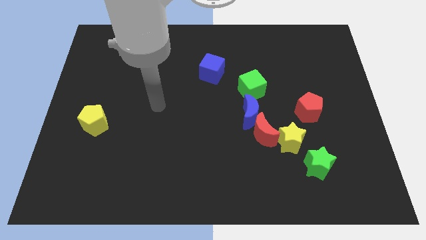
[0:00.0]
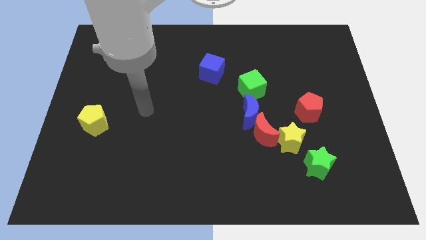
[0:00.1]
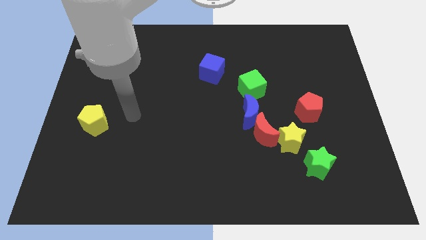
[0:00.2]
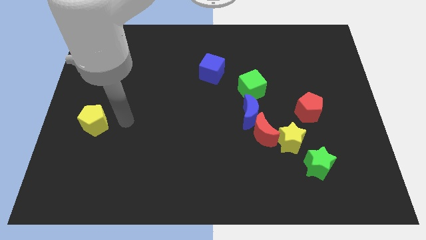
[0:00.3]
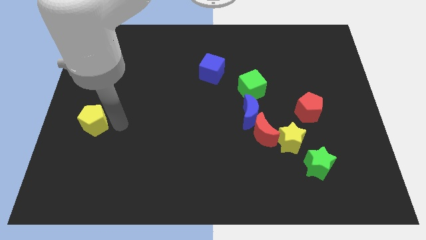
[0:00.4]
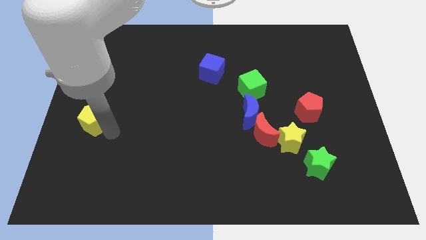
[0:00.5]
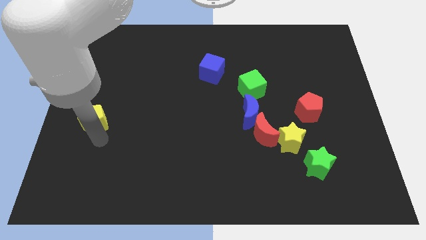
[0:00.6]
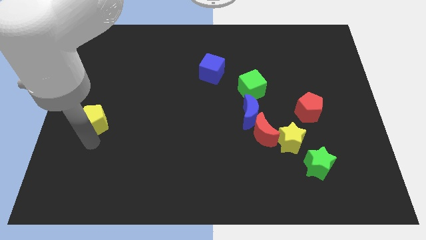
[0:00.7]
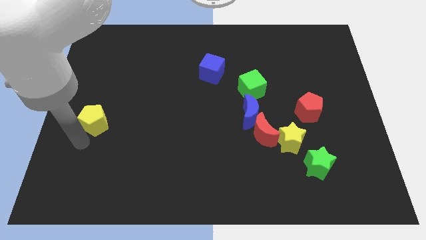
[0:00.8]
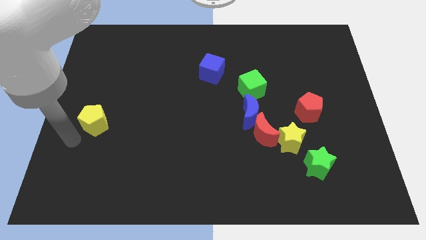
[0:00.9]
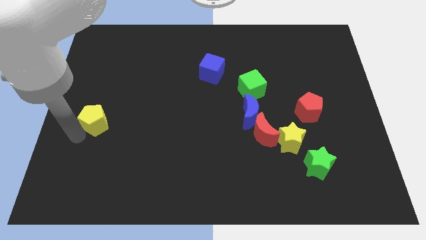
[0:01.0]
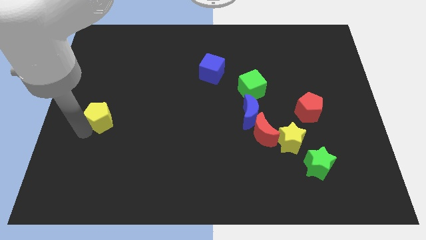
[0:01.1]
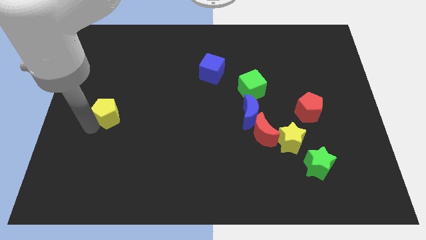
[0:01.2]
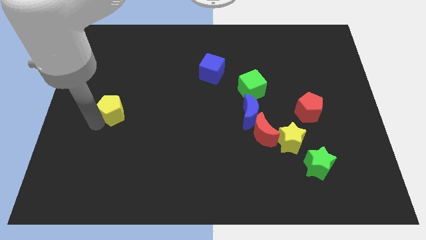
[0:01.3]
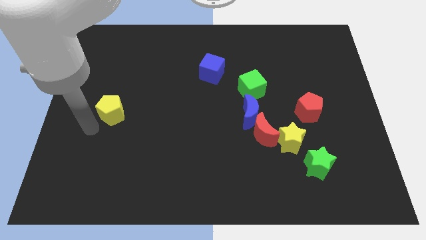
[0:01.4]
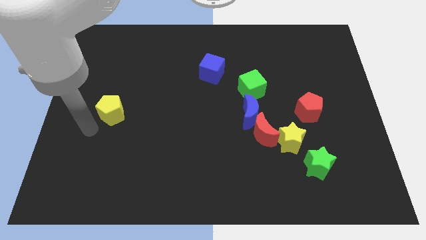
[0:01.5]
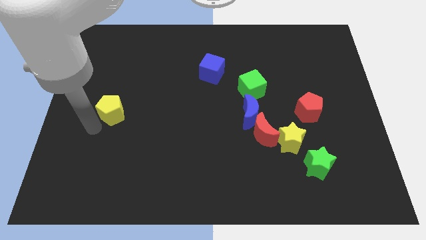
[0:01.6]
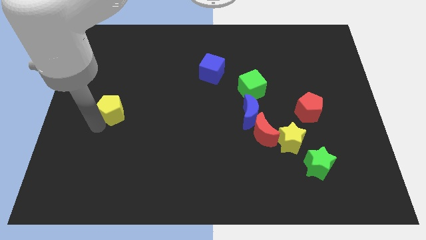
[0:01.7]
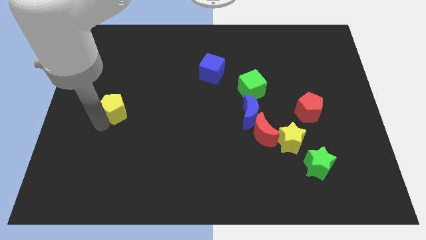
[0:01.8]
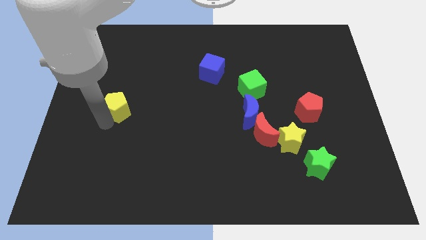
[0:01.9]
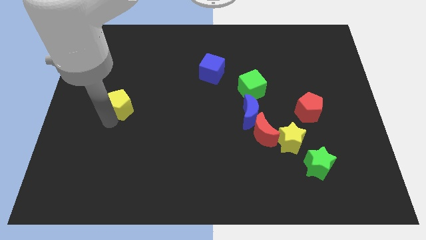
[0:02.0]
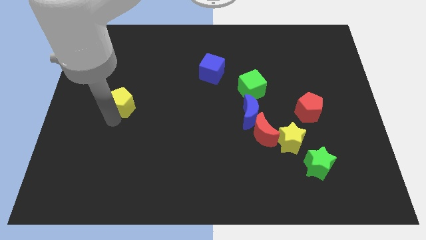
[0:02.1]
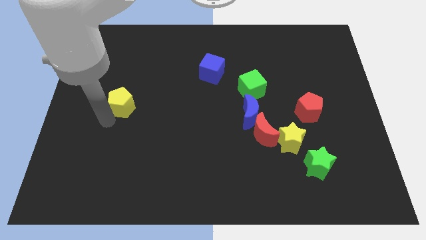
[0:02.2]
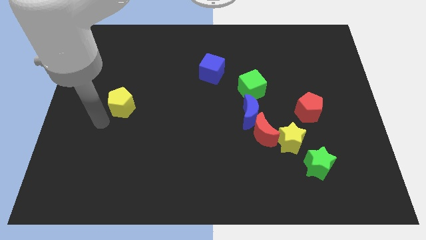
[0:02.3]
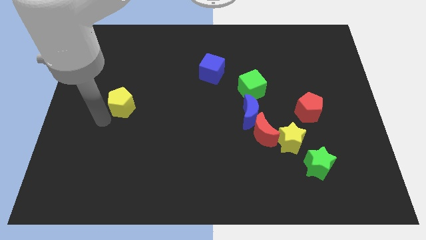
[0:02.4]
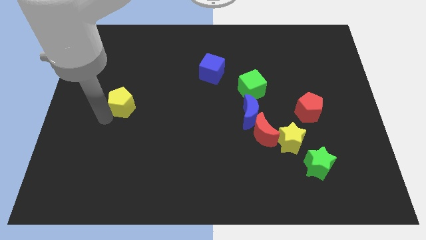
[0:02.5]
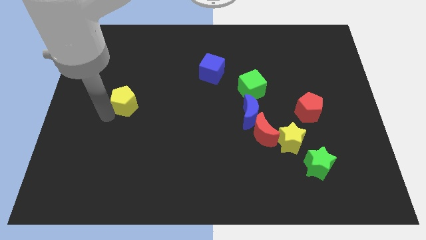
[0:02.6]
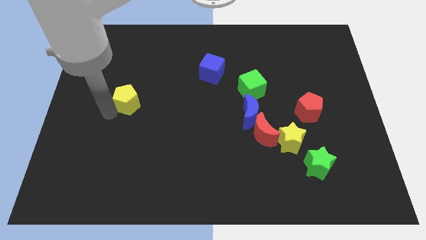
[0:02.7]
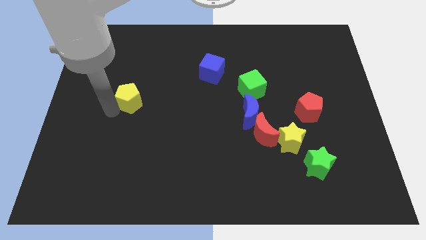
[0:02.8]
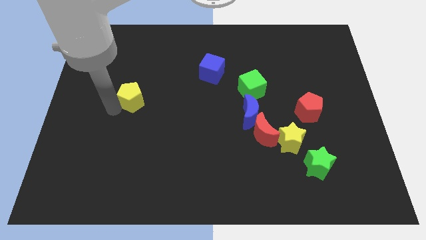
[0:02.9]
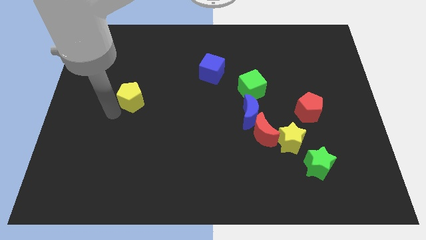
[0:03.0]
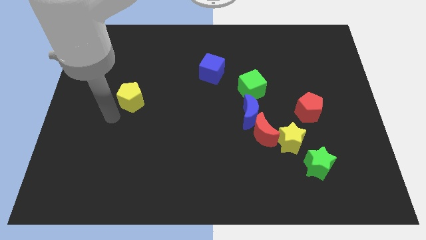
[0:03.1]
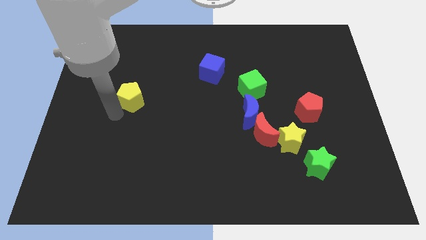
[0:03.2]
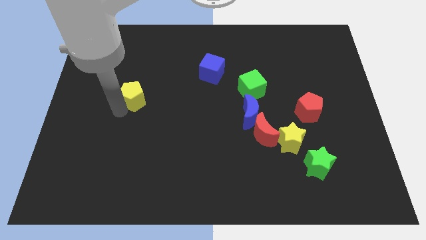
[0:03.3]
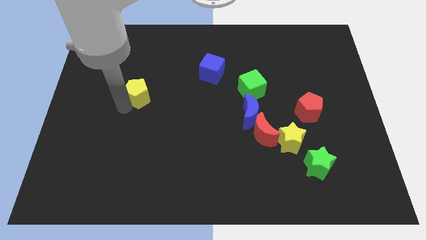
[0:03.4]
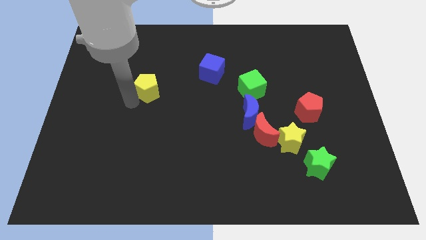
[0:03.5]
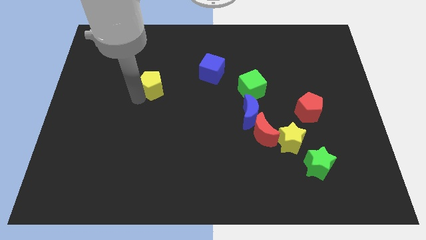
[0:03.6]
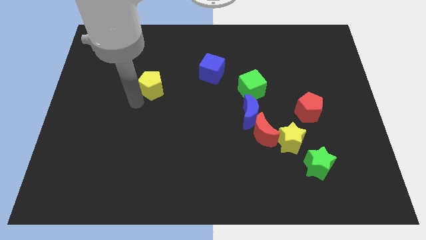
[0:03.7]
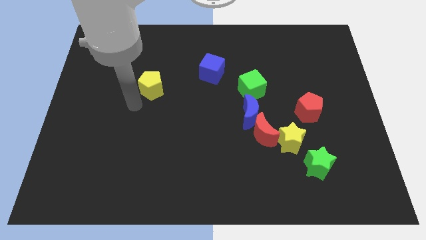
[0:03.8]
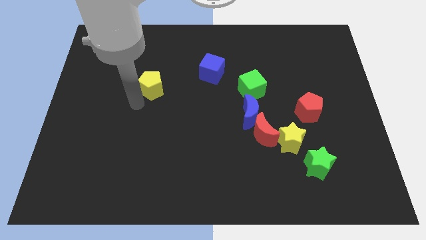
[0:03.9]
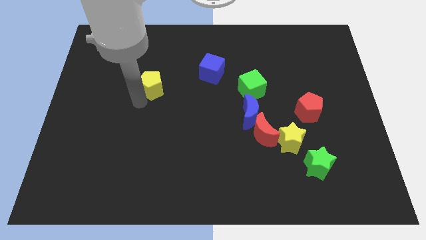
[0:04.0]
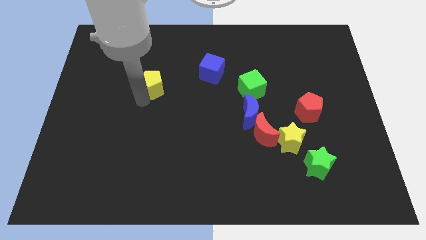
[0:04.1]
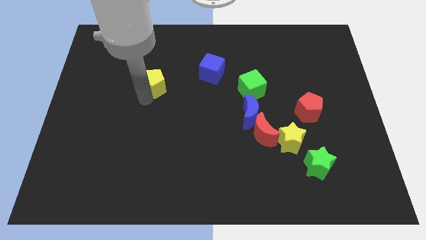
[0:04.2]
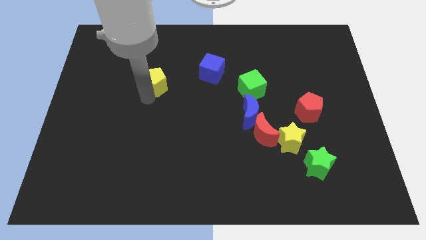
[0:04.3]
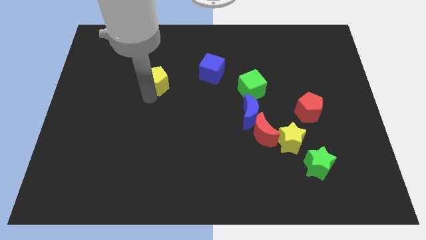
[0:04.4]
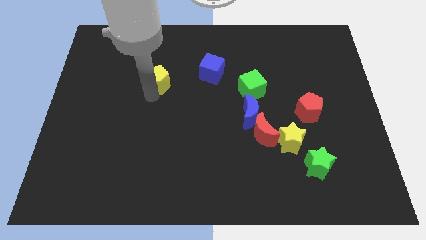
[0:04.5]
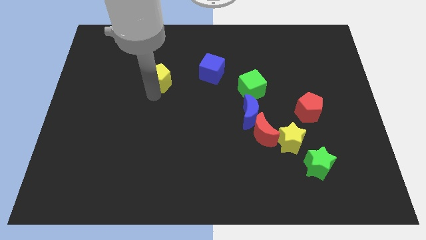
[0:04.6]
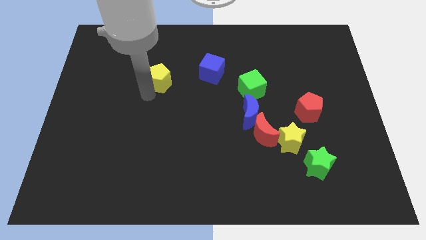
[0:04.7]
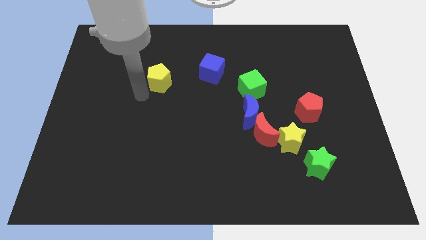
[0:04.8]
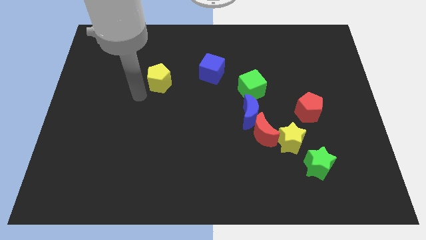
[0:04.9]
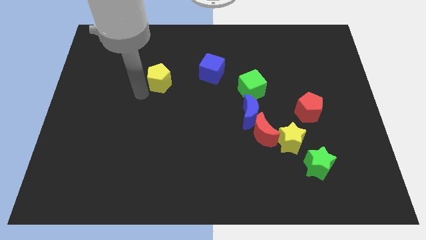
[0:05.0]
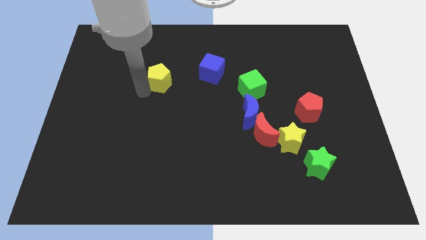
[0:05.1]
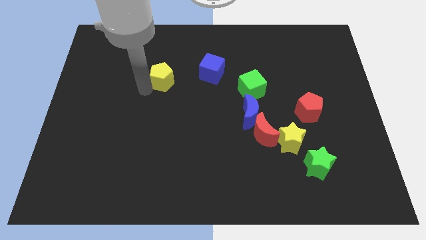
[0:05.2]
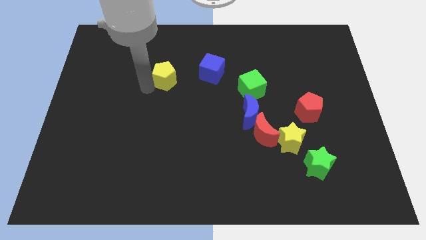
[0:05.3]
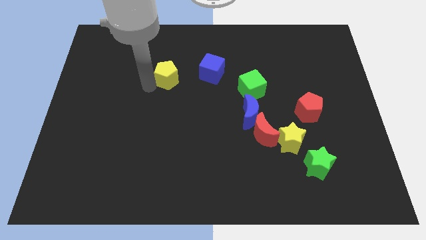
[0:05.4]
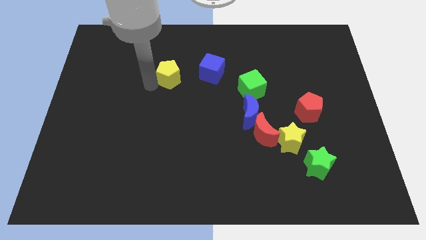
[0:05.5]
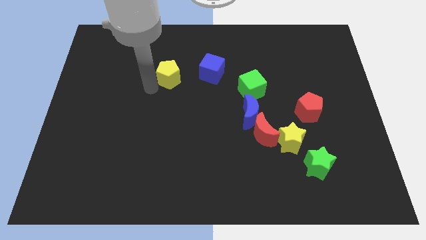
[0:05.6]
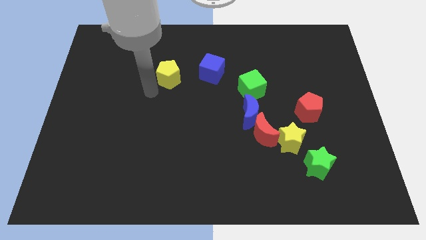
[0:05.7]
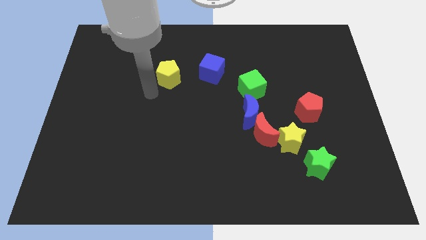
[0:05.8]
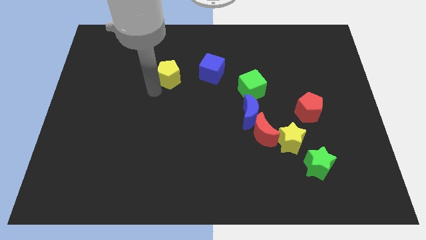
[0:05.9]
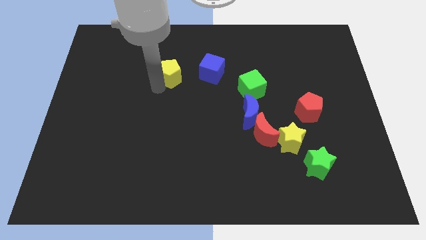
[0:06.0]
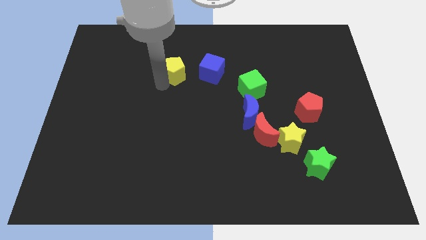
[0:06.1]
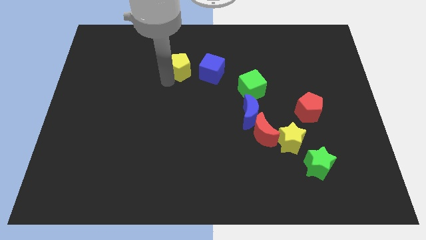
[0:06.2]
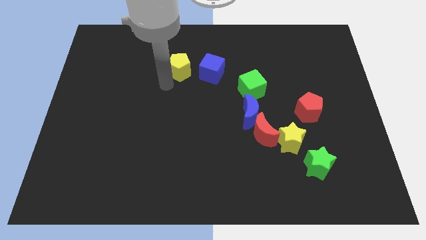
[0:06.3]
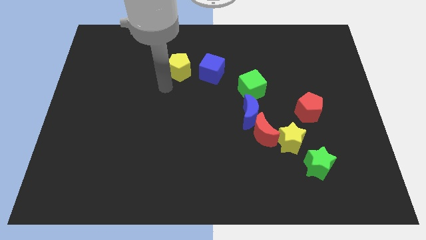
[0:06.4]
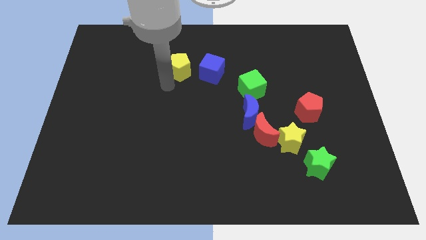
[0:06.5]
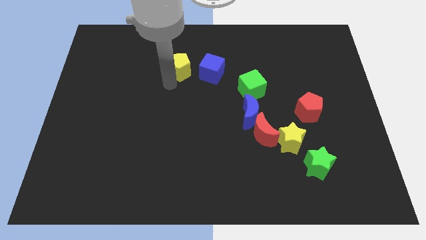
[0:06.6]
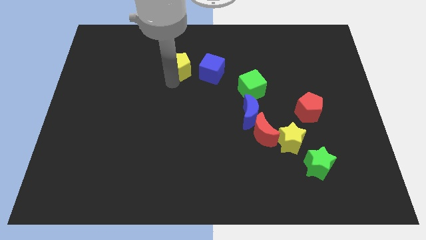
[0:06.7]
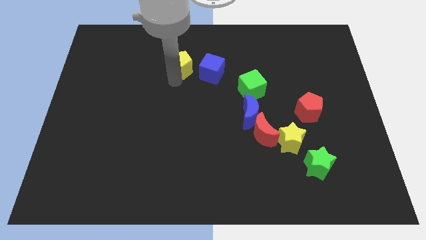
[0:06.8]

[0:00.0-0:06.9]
put the yellow pentagon diagonally up and to the left of the blue cube
